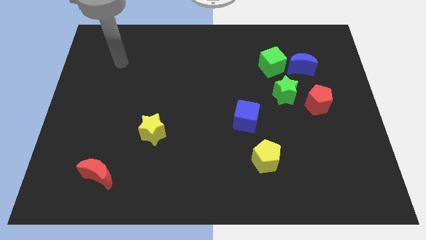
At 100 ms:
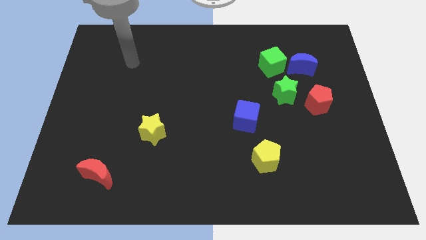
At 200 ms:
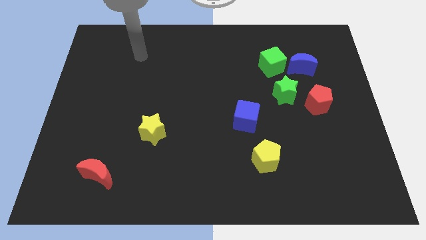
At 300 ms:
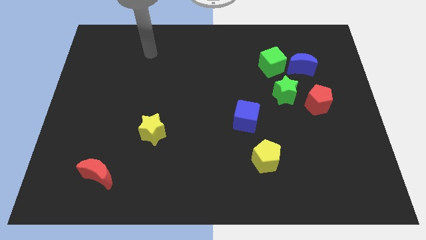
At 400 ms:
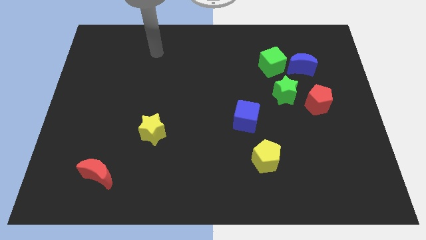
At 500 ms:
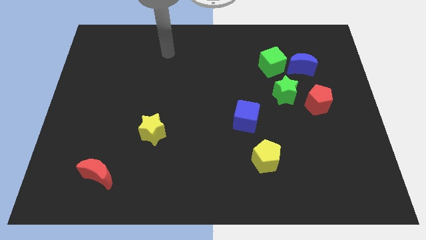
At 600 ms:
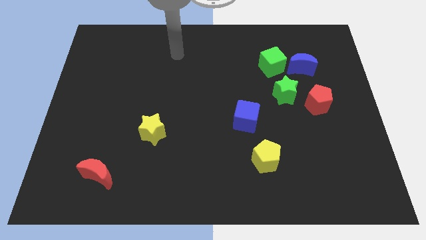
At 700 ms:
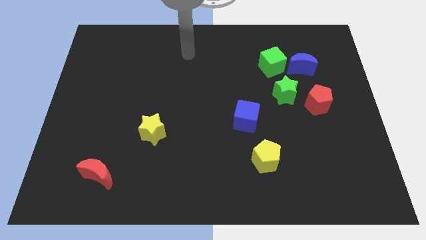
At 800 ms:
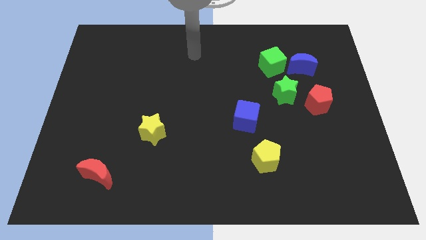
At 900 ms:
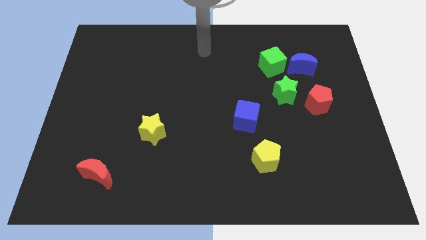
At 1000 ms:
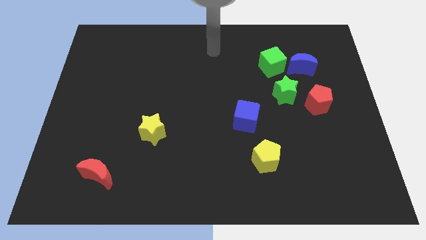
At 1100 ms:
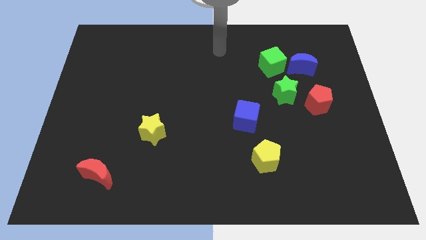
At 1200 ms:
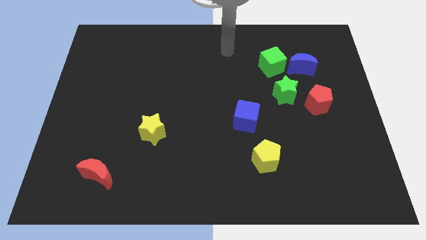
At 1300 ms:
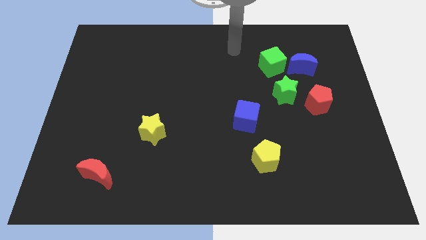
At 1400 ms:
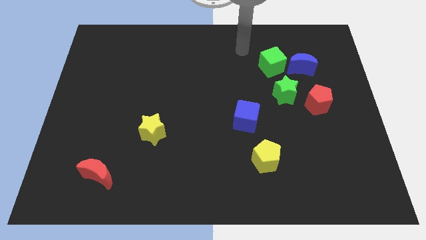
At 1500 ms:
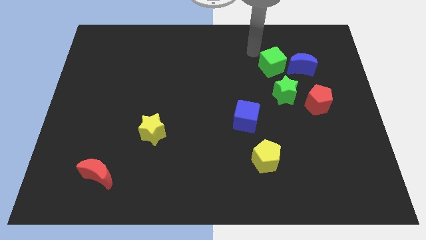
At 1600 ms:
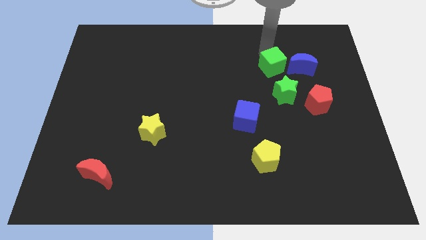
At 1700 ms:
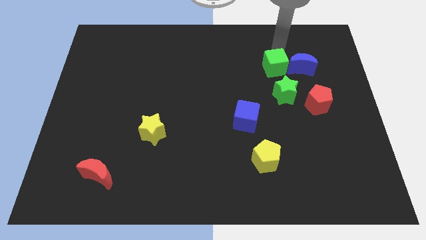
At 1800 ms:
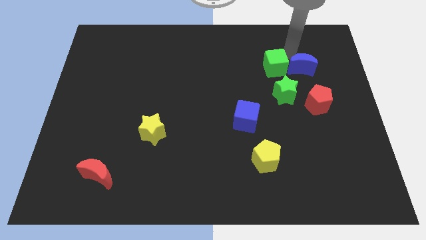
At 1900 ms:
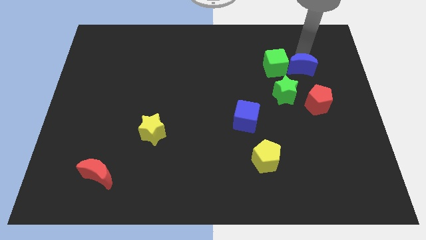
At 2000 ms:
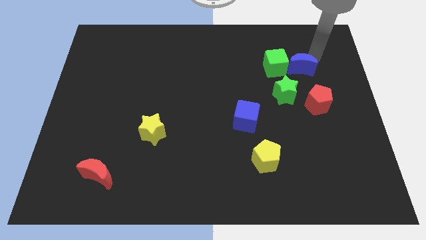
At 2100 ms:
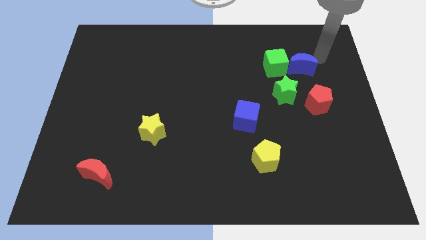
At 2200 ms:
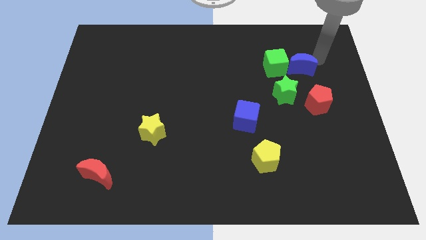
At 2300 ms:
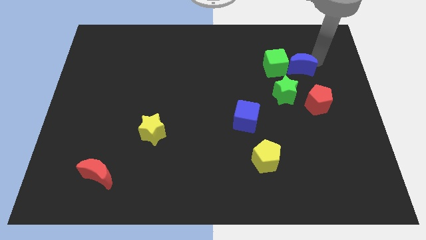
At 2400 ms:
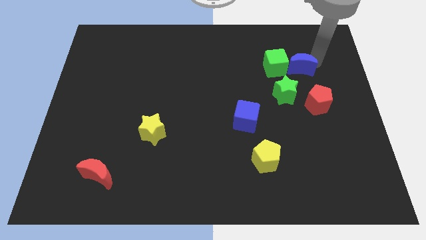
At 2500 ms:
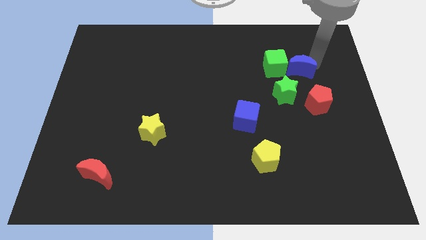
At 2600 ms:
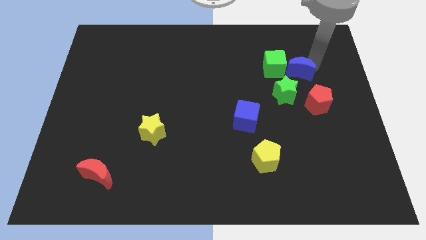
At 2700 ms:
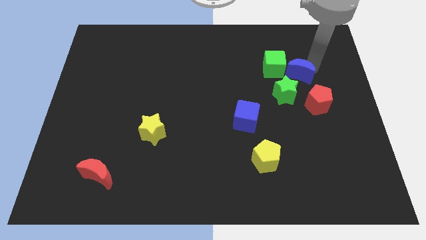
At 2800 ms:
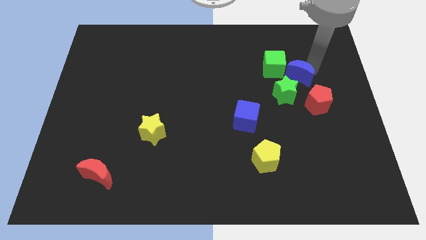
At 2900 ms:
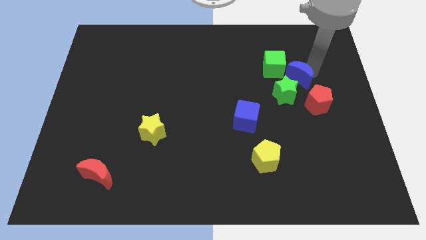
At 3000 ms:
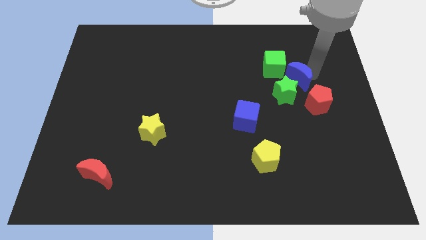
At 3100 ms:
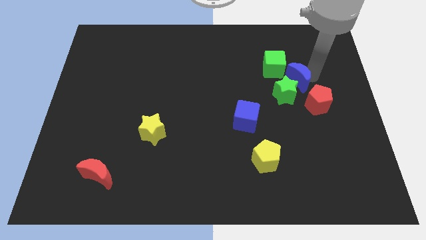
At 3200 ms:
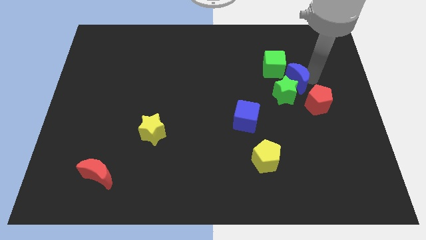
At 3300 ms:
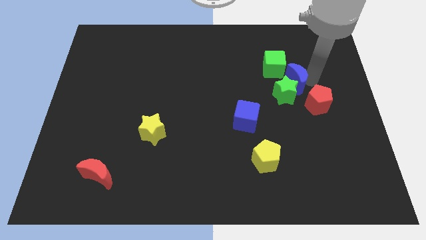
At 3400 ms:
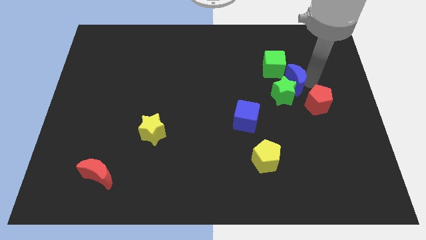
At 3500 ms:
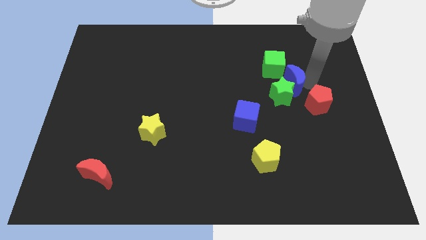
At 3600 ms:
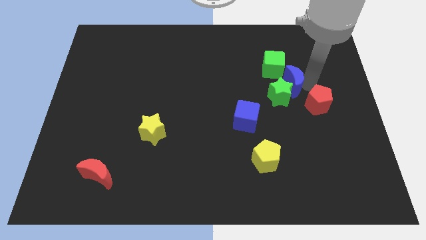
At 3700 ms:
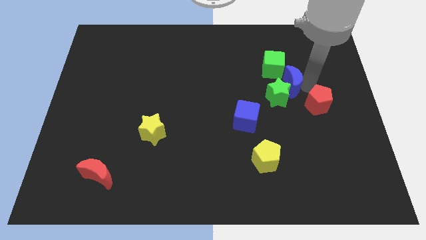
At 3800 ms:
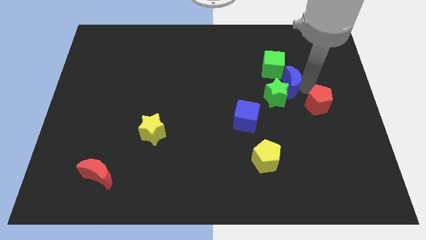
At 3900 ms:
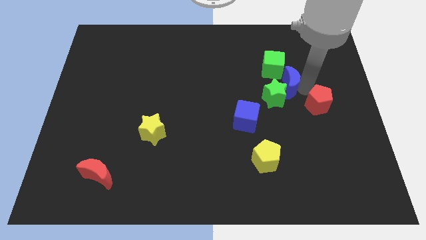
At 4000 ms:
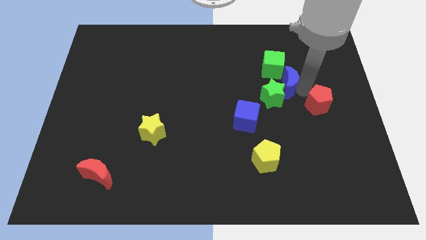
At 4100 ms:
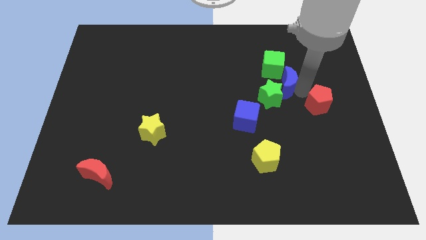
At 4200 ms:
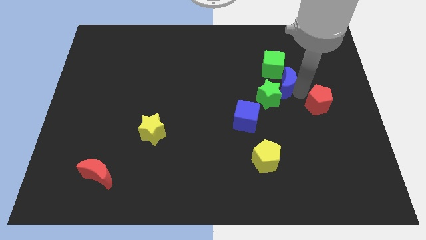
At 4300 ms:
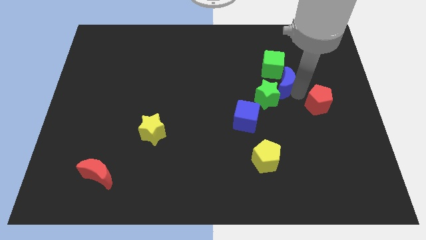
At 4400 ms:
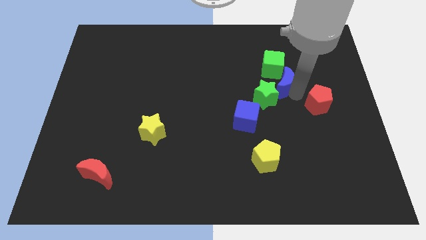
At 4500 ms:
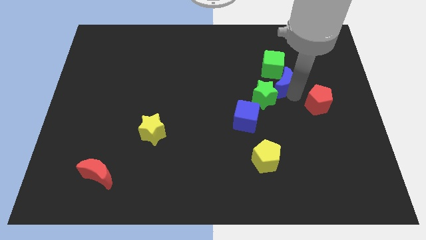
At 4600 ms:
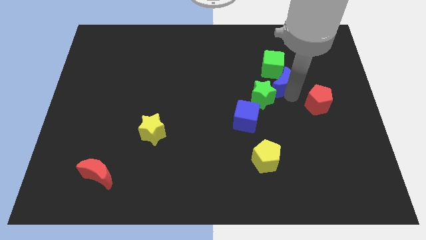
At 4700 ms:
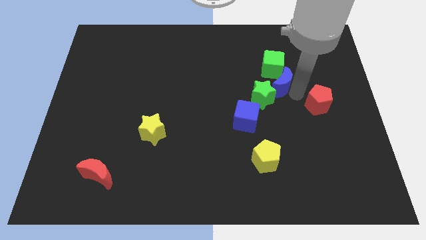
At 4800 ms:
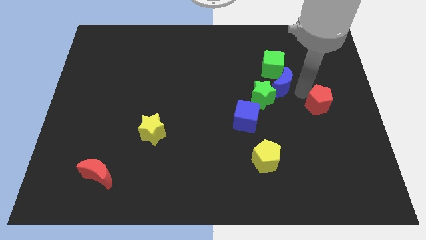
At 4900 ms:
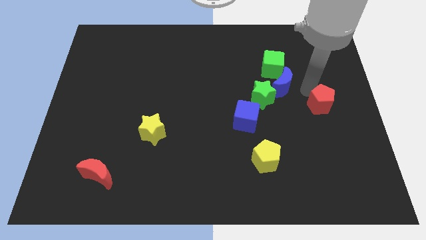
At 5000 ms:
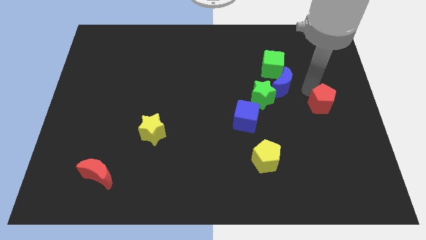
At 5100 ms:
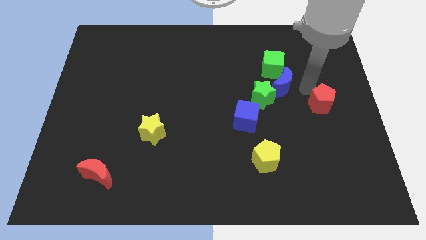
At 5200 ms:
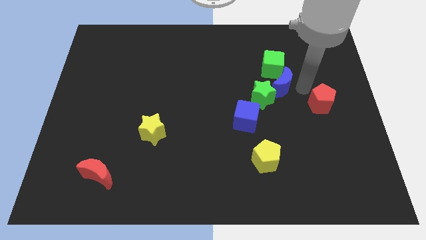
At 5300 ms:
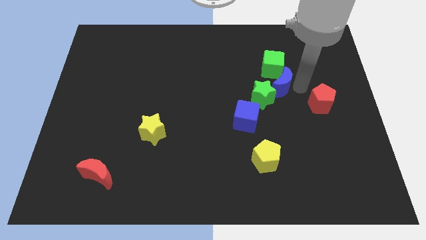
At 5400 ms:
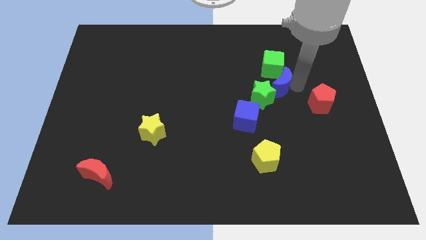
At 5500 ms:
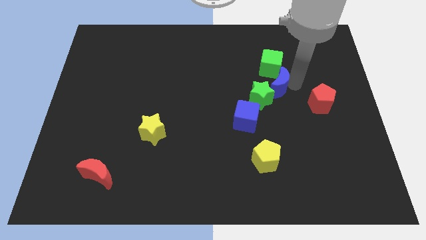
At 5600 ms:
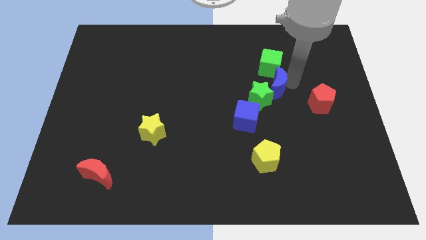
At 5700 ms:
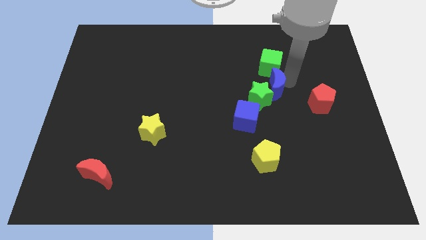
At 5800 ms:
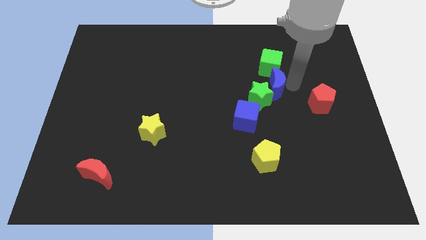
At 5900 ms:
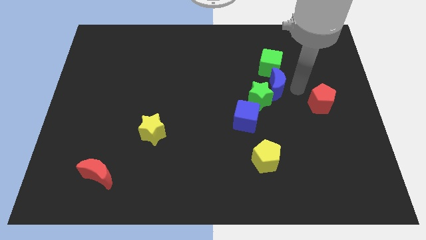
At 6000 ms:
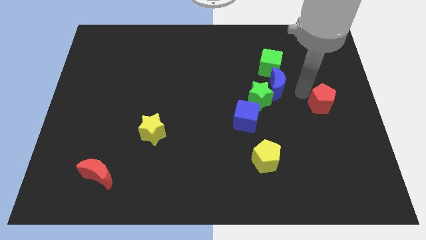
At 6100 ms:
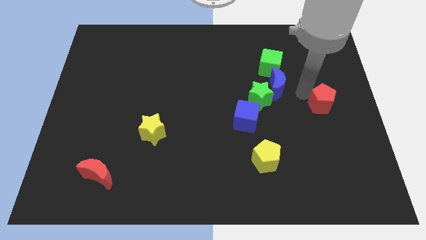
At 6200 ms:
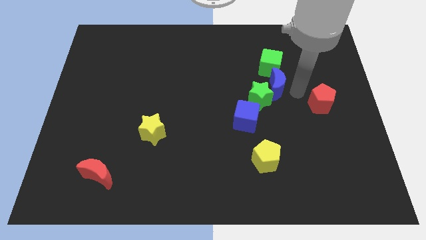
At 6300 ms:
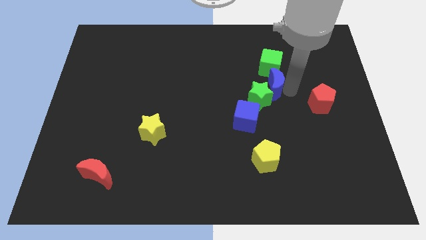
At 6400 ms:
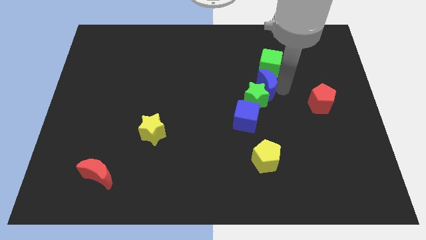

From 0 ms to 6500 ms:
put the blue moon diagonally down and to the left of the green cube

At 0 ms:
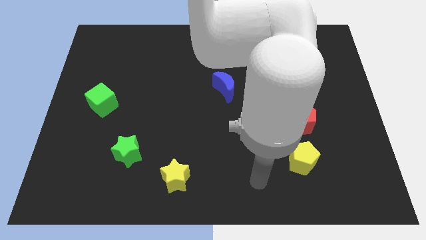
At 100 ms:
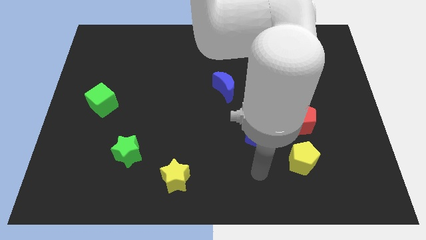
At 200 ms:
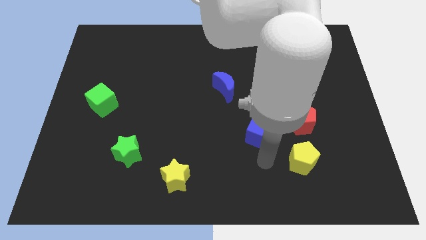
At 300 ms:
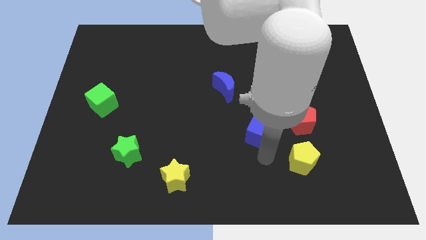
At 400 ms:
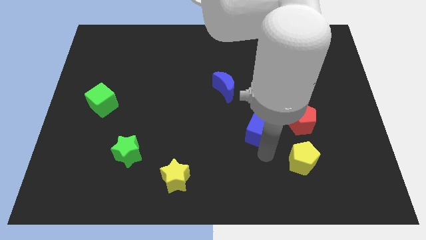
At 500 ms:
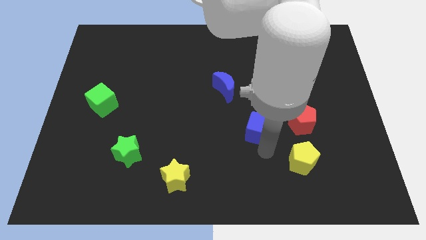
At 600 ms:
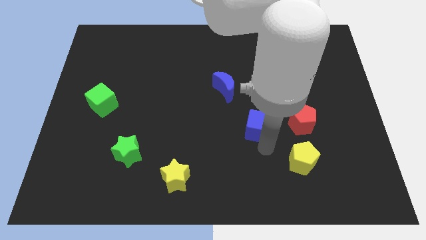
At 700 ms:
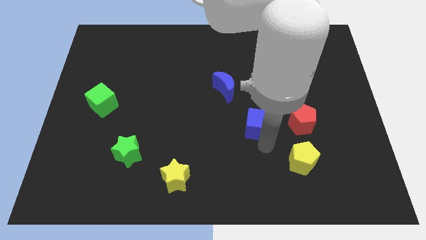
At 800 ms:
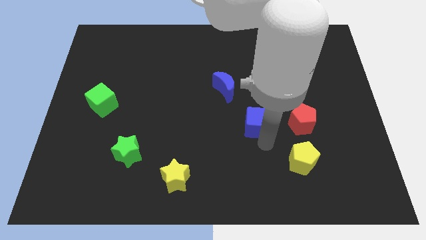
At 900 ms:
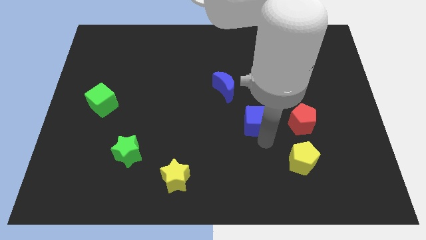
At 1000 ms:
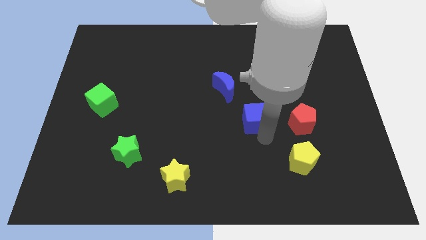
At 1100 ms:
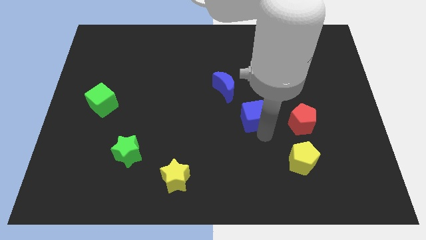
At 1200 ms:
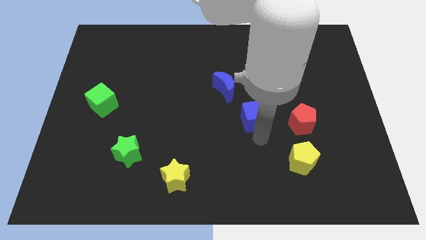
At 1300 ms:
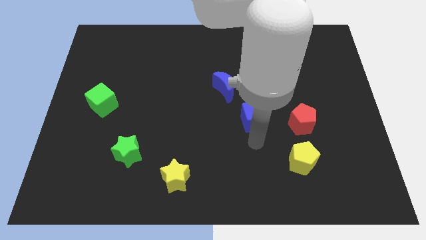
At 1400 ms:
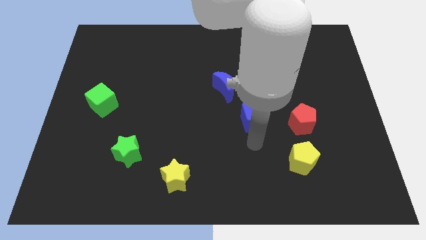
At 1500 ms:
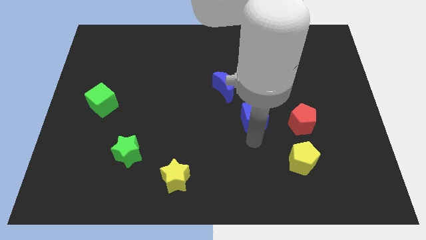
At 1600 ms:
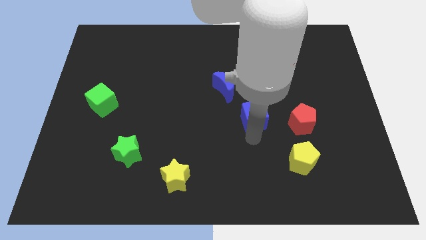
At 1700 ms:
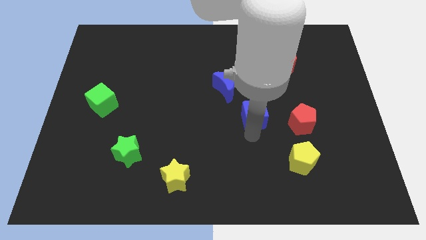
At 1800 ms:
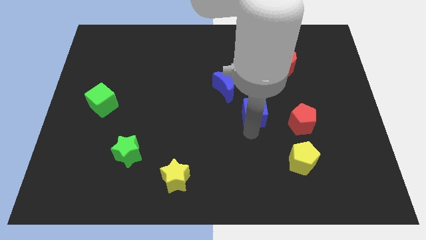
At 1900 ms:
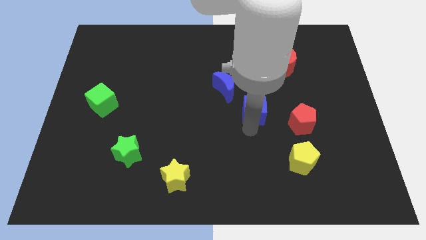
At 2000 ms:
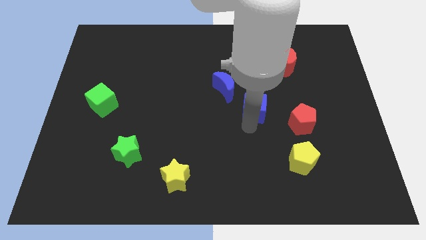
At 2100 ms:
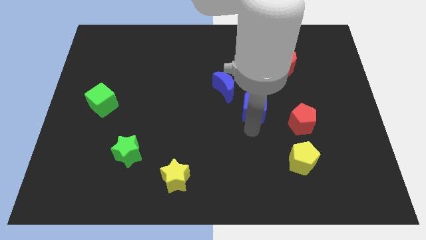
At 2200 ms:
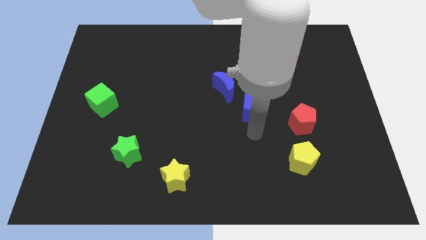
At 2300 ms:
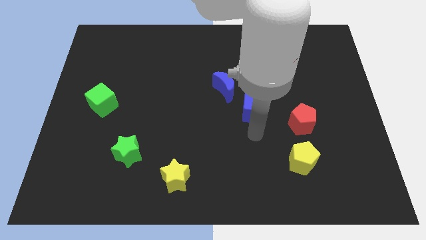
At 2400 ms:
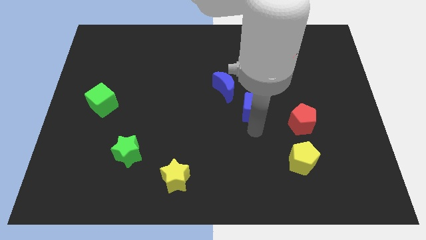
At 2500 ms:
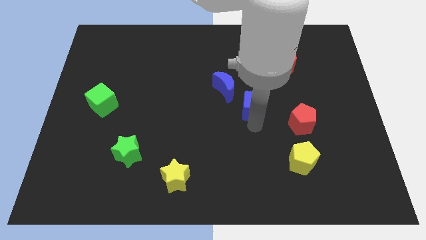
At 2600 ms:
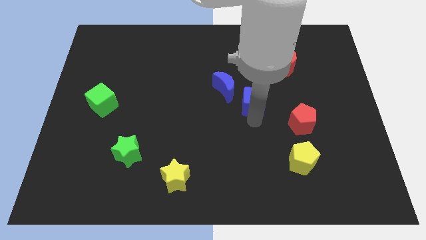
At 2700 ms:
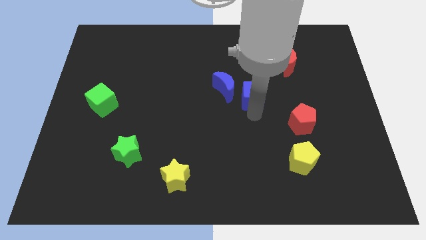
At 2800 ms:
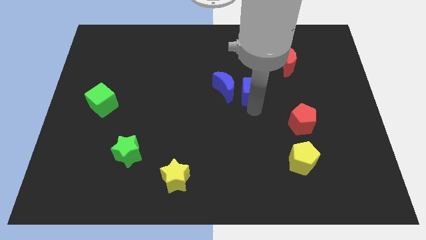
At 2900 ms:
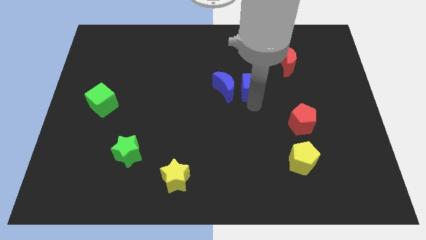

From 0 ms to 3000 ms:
push the blue cube to the top right of the blue moon
